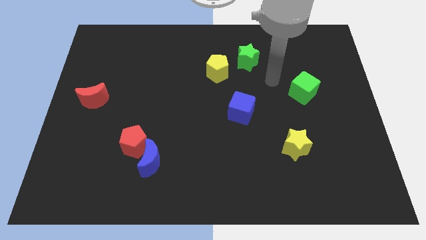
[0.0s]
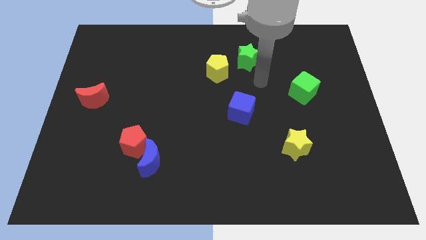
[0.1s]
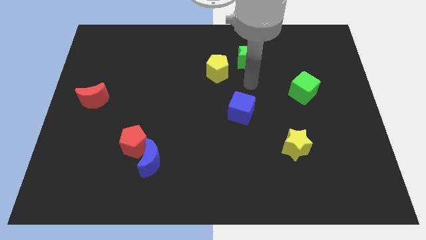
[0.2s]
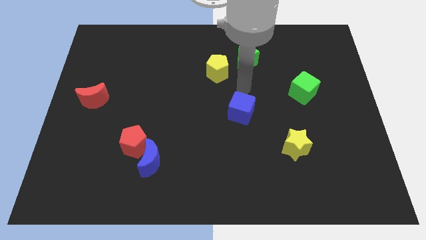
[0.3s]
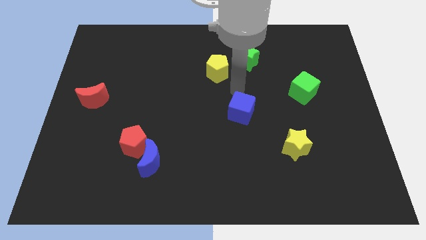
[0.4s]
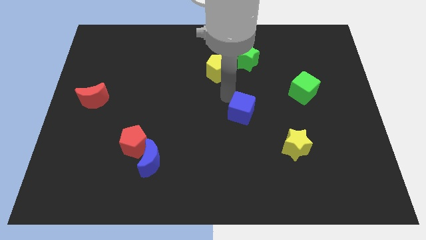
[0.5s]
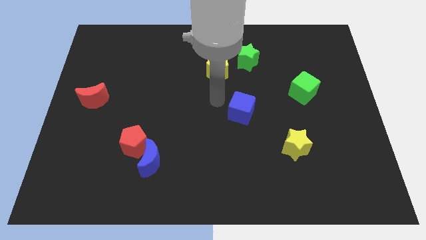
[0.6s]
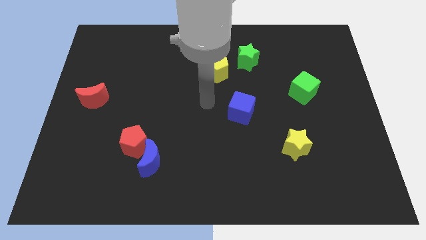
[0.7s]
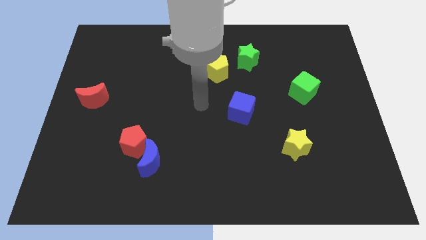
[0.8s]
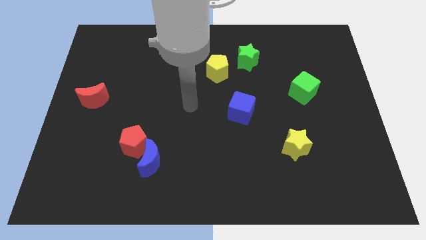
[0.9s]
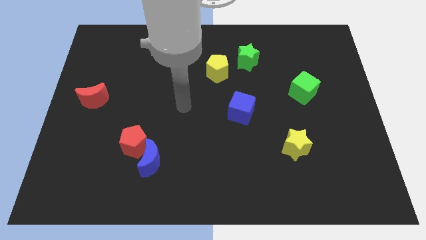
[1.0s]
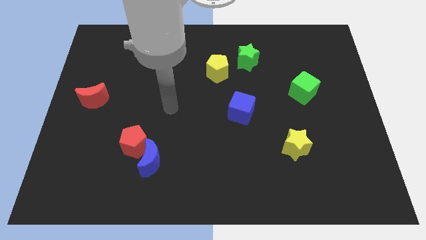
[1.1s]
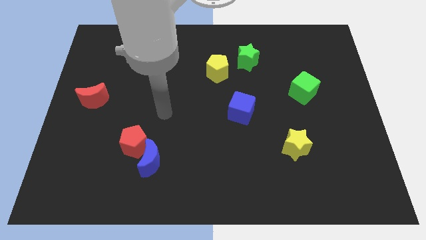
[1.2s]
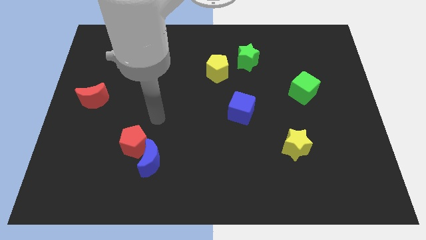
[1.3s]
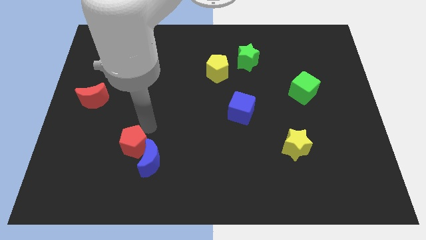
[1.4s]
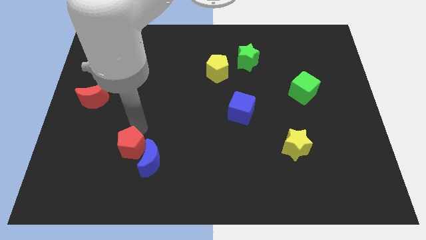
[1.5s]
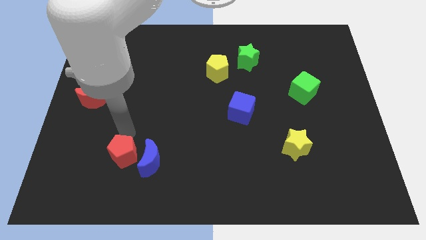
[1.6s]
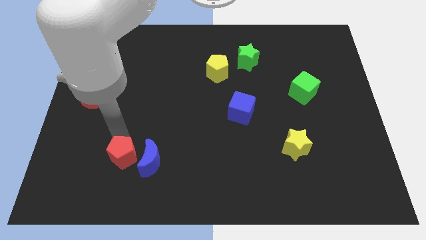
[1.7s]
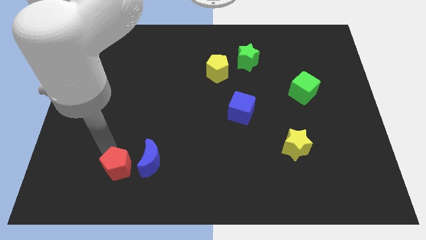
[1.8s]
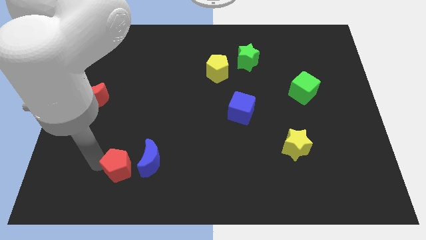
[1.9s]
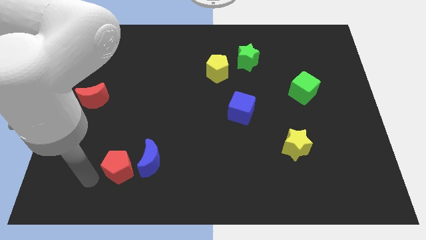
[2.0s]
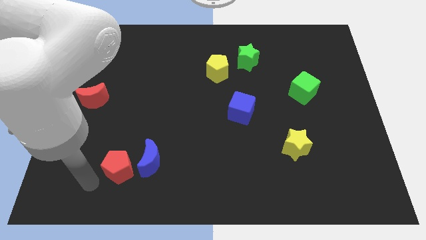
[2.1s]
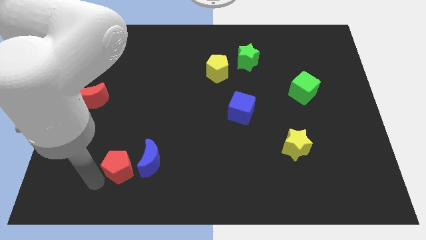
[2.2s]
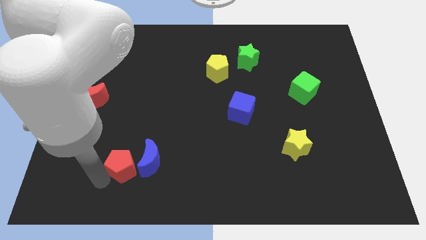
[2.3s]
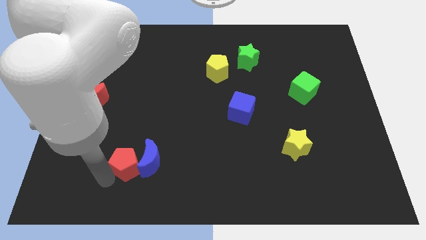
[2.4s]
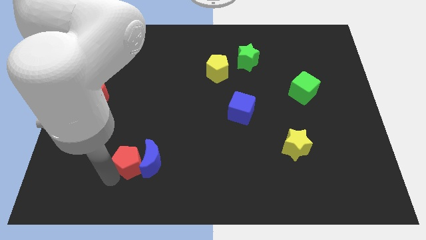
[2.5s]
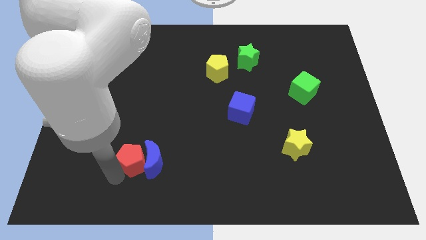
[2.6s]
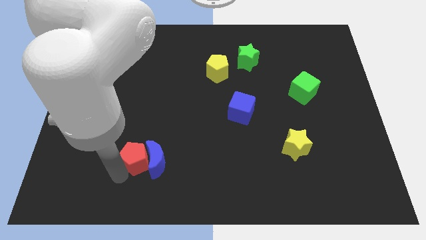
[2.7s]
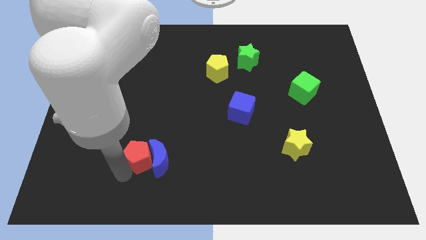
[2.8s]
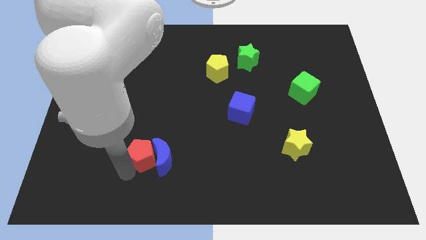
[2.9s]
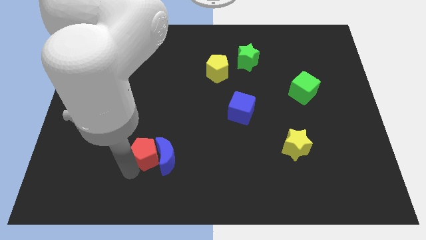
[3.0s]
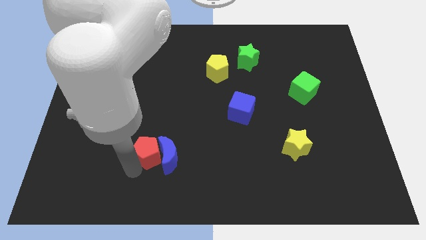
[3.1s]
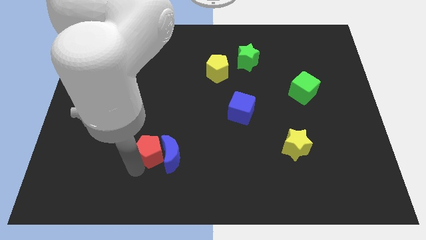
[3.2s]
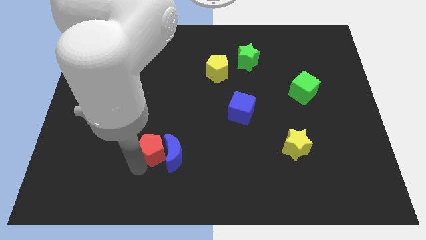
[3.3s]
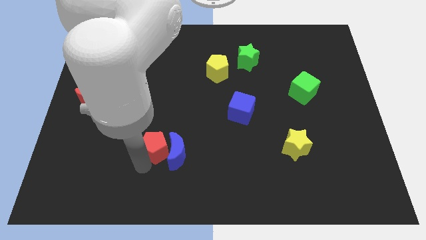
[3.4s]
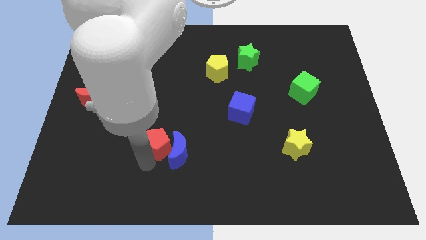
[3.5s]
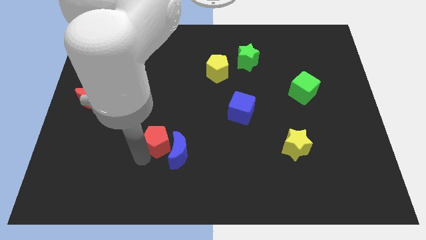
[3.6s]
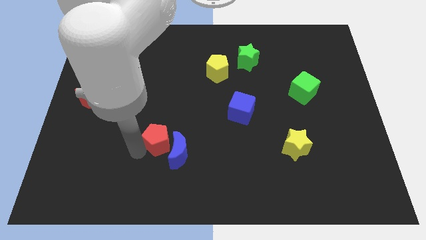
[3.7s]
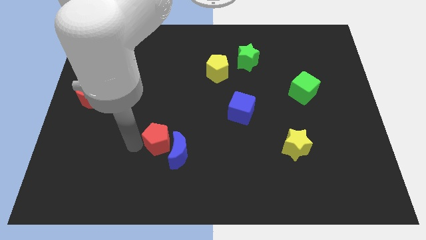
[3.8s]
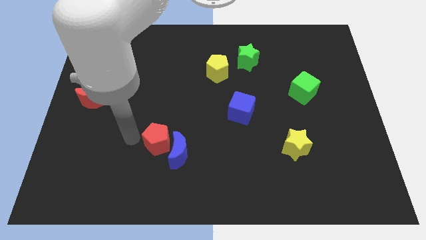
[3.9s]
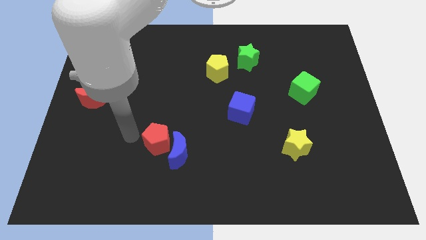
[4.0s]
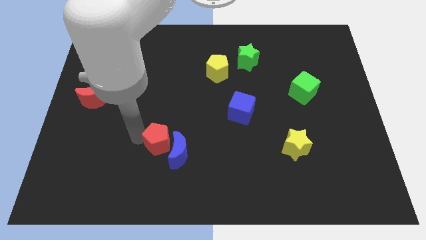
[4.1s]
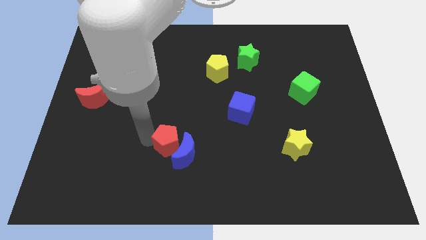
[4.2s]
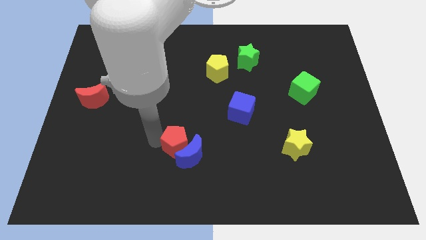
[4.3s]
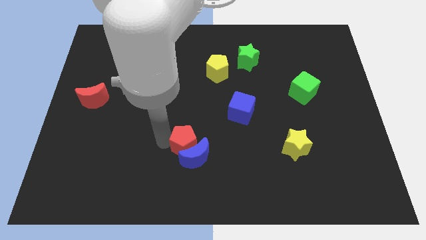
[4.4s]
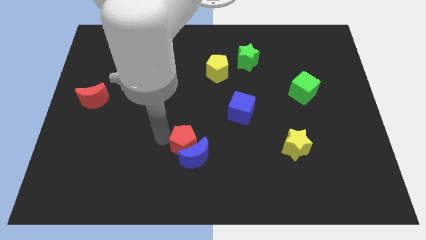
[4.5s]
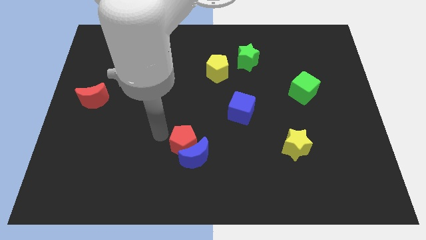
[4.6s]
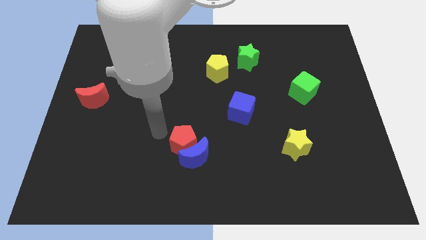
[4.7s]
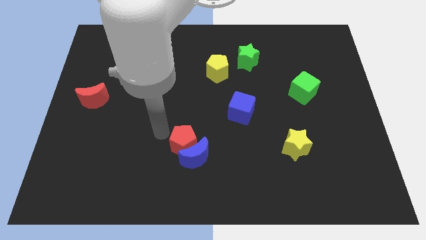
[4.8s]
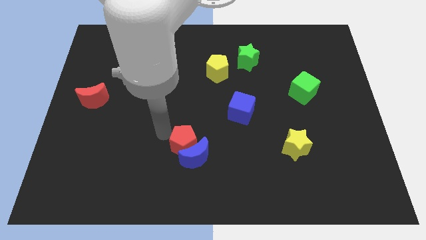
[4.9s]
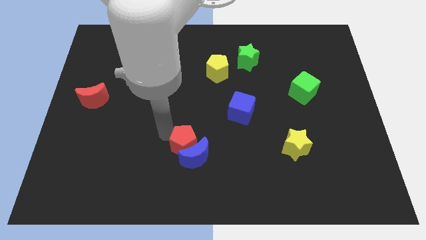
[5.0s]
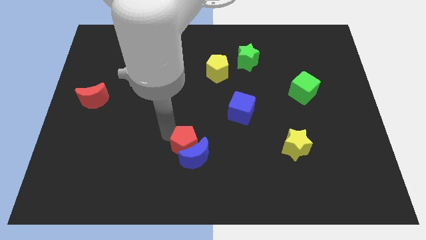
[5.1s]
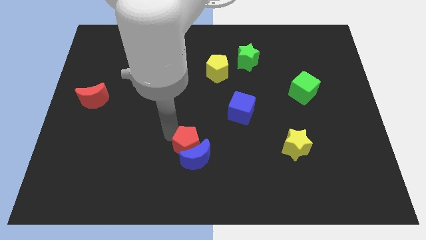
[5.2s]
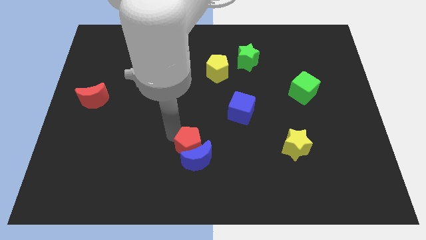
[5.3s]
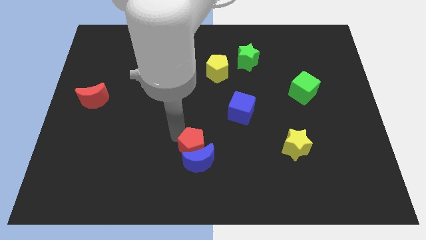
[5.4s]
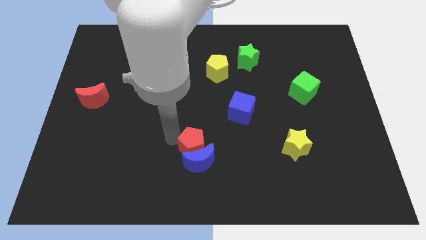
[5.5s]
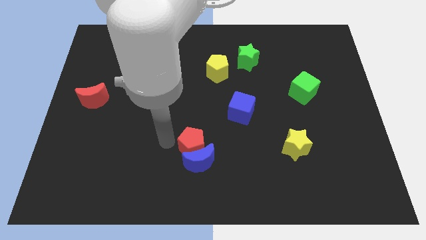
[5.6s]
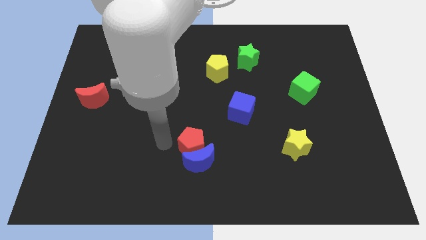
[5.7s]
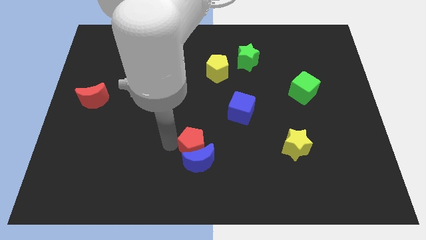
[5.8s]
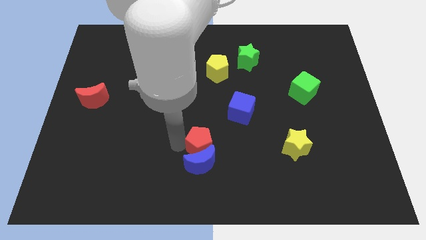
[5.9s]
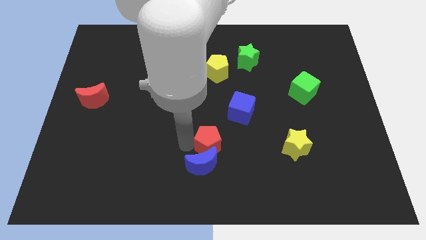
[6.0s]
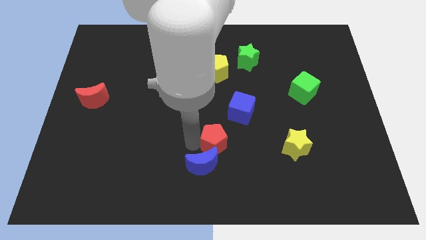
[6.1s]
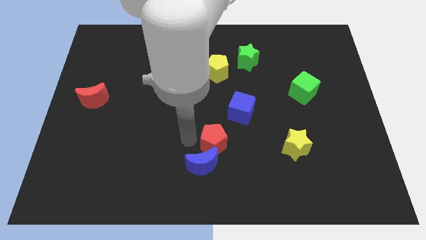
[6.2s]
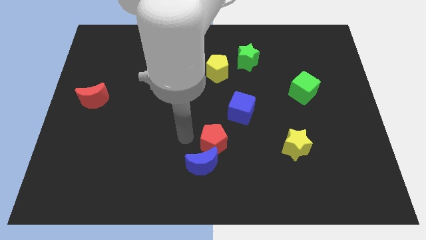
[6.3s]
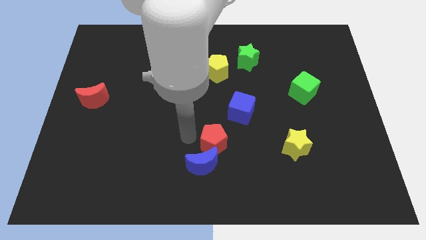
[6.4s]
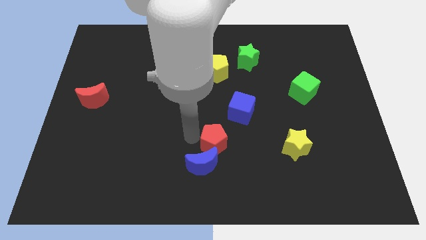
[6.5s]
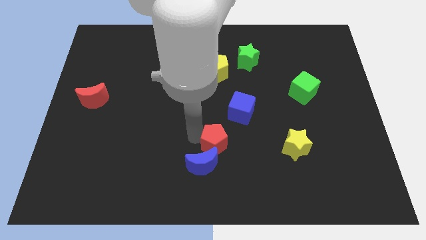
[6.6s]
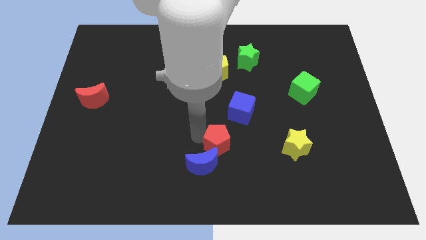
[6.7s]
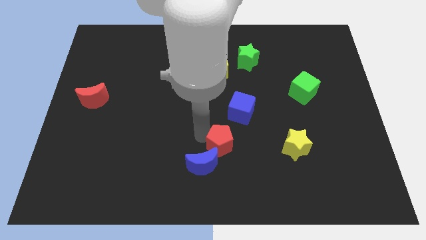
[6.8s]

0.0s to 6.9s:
push the red pentagon to the left of the yellow star
